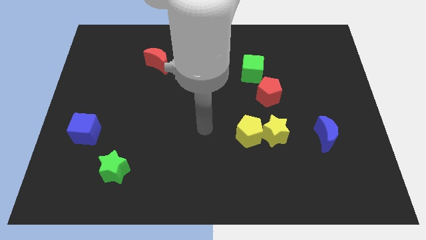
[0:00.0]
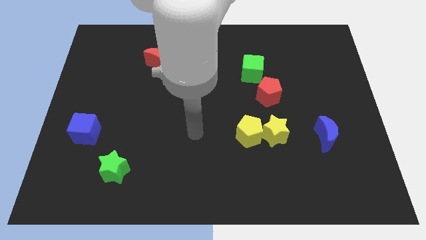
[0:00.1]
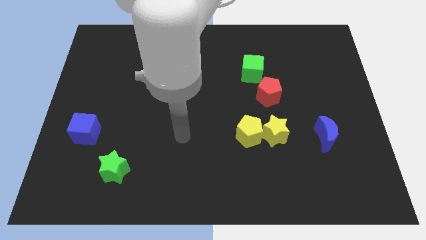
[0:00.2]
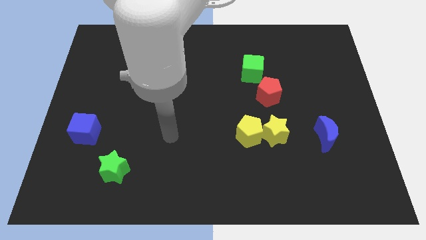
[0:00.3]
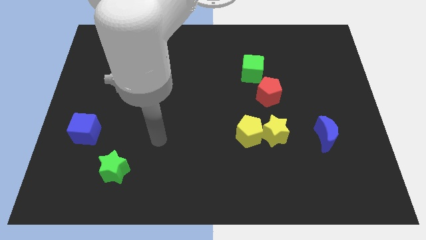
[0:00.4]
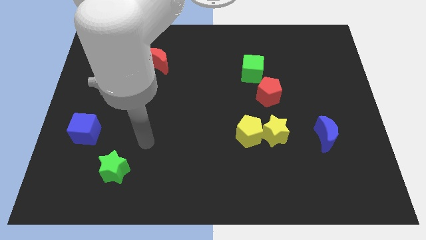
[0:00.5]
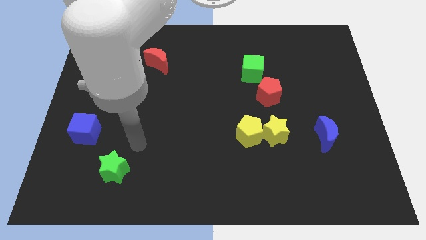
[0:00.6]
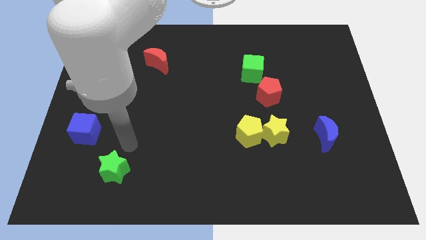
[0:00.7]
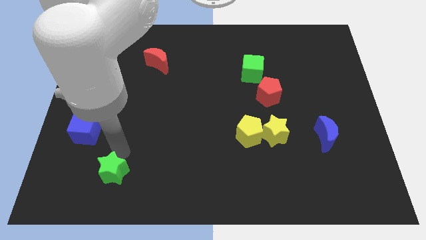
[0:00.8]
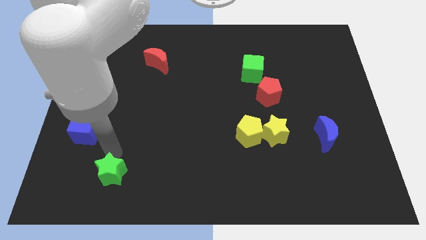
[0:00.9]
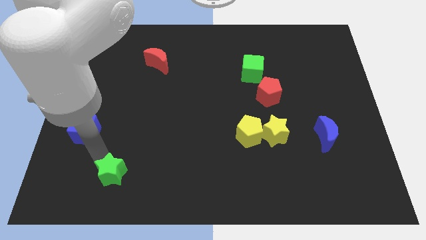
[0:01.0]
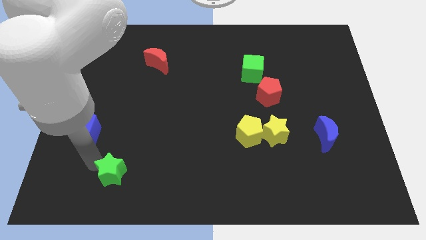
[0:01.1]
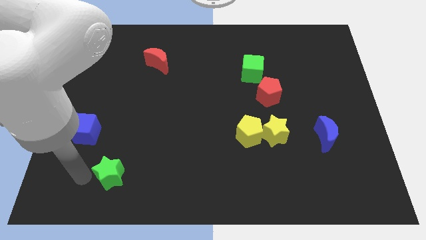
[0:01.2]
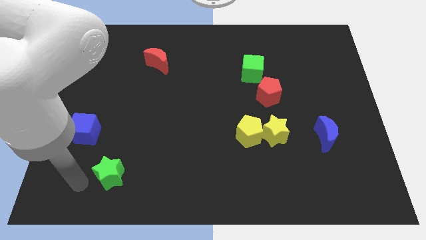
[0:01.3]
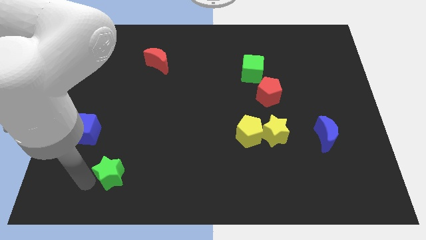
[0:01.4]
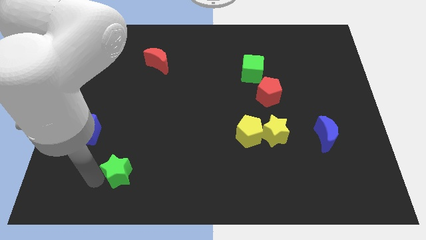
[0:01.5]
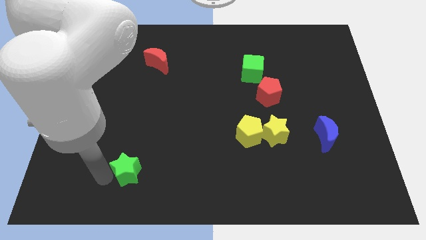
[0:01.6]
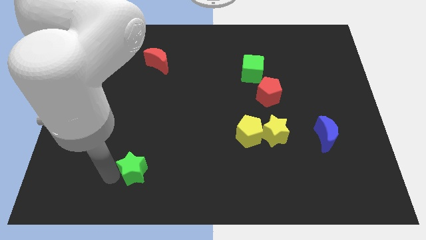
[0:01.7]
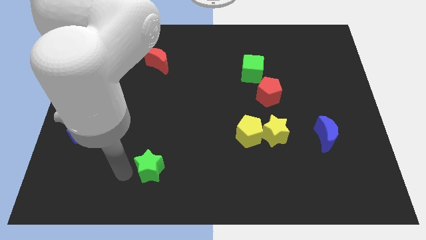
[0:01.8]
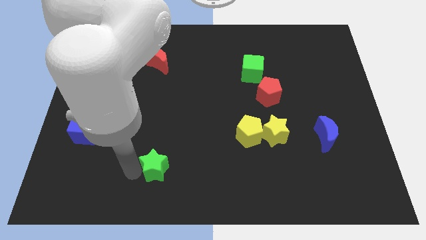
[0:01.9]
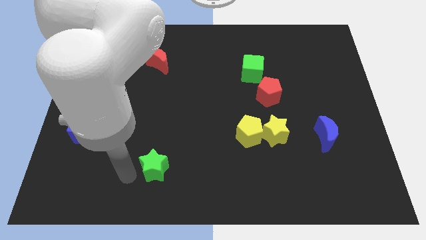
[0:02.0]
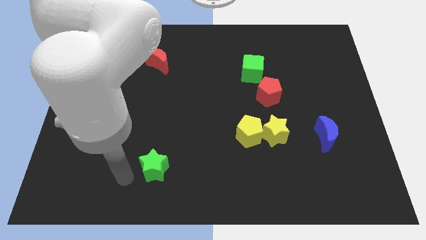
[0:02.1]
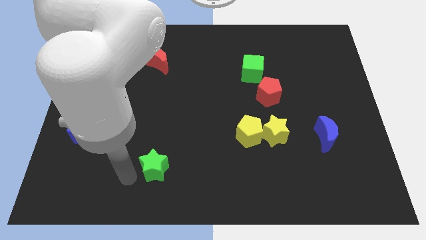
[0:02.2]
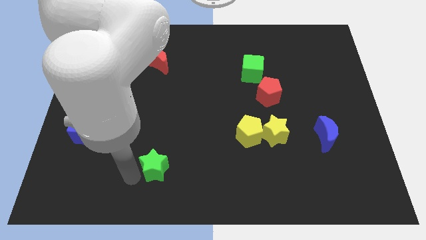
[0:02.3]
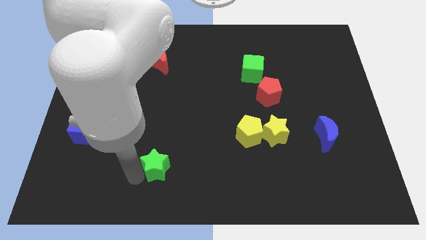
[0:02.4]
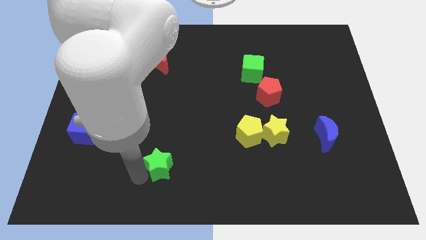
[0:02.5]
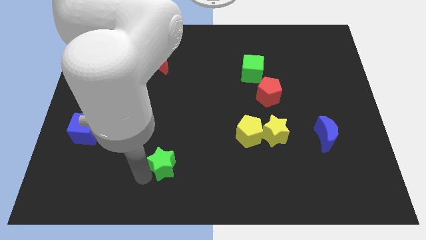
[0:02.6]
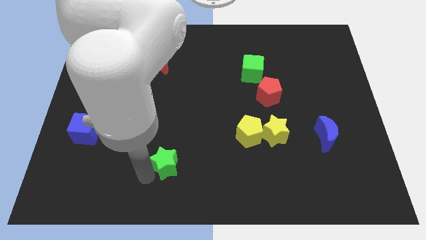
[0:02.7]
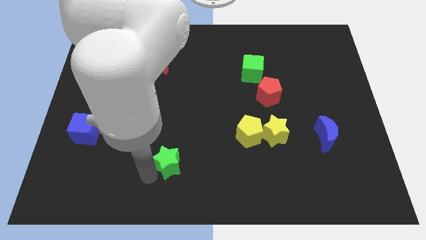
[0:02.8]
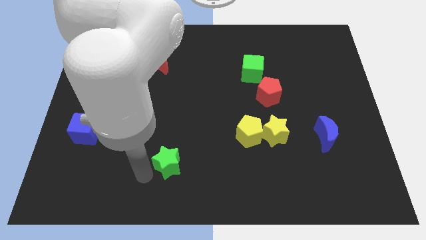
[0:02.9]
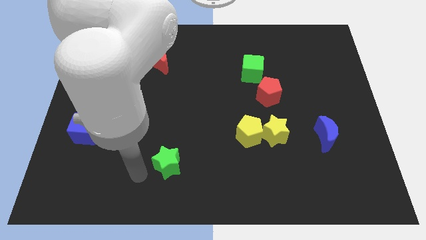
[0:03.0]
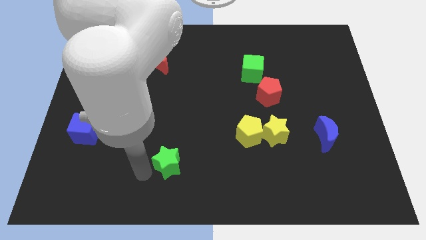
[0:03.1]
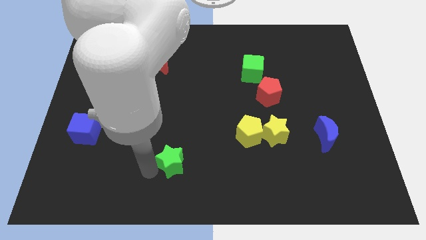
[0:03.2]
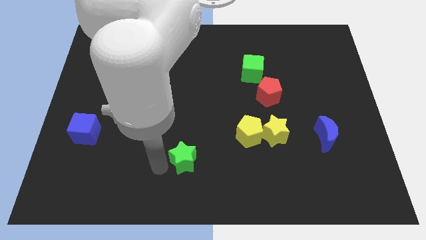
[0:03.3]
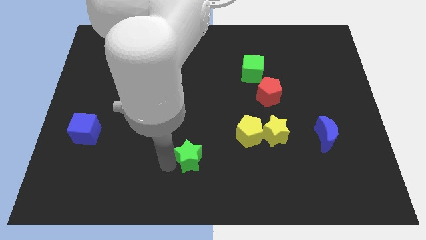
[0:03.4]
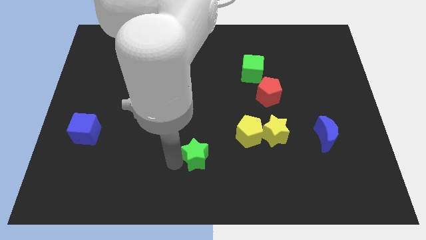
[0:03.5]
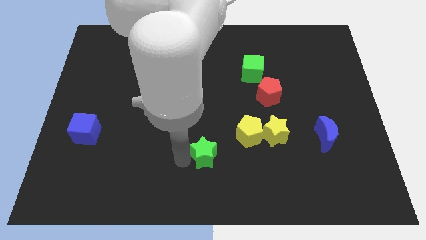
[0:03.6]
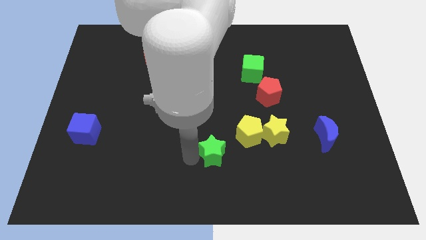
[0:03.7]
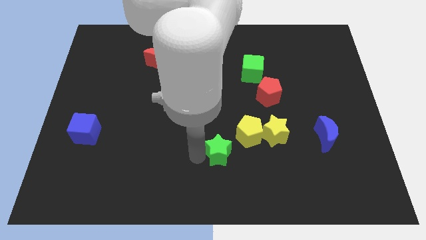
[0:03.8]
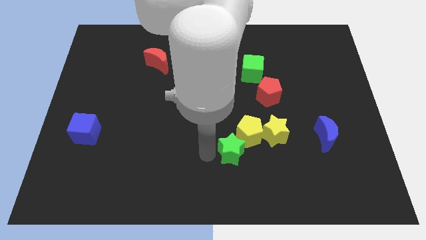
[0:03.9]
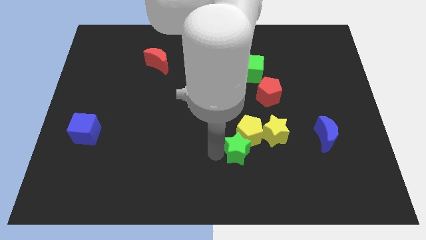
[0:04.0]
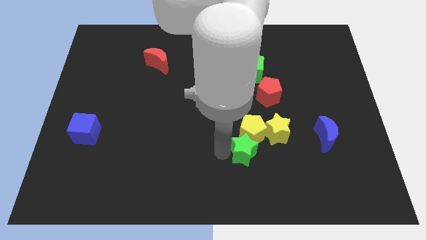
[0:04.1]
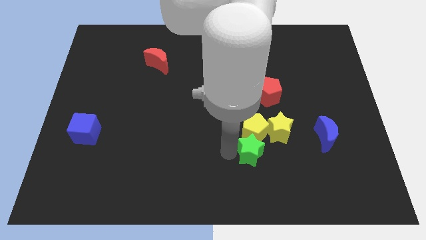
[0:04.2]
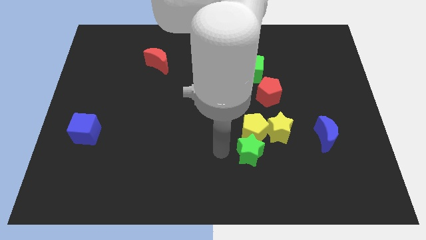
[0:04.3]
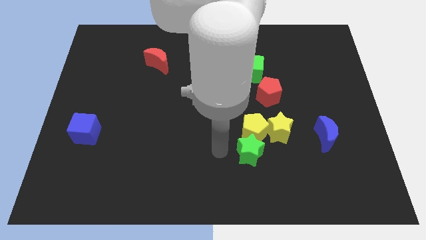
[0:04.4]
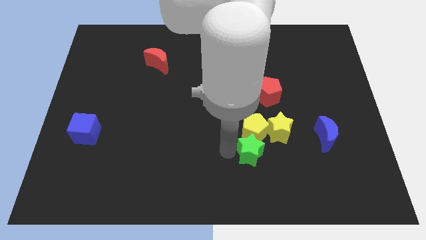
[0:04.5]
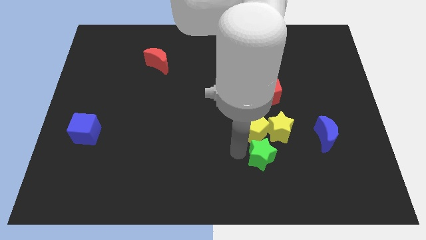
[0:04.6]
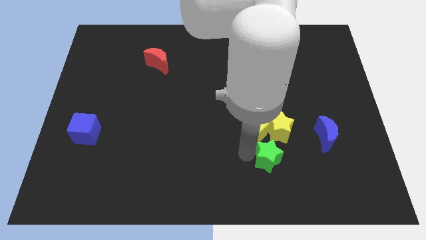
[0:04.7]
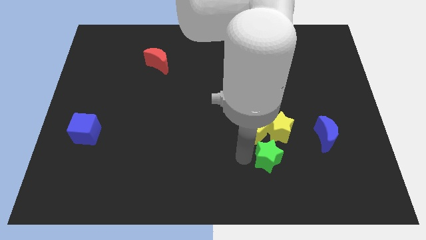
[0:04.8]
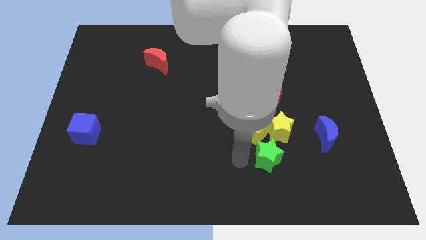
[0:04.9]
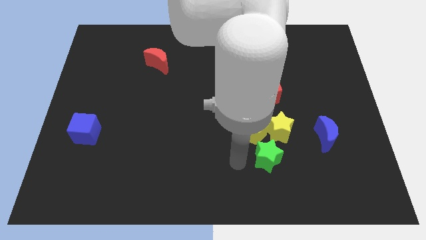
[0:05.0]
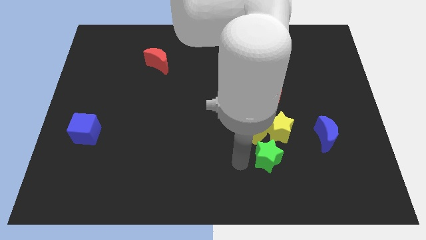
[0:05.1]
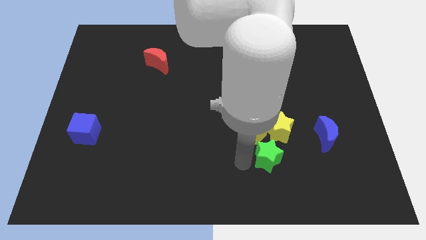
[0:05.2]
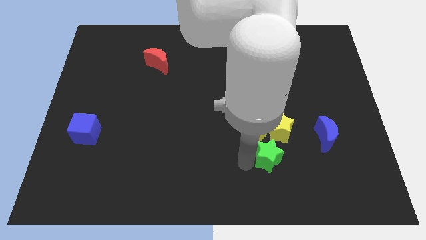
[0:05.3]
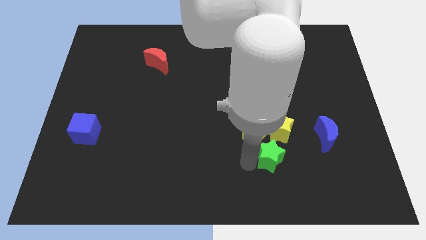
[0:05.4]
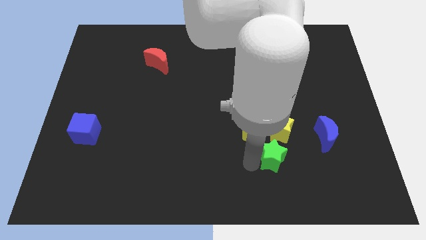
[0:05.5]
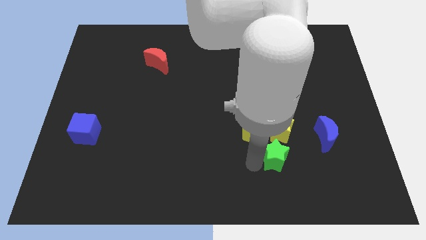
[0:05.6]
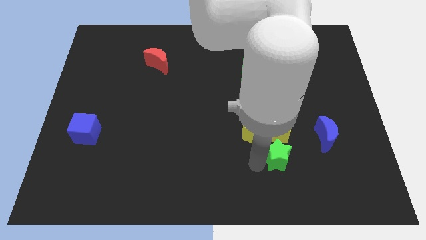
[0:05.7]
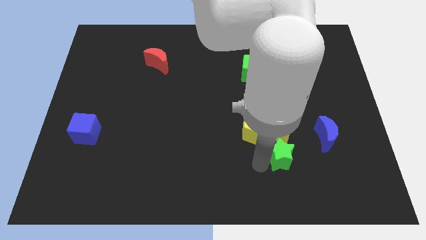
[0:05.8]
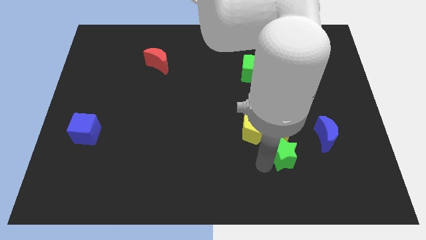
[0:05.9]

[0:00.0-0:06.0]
slide the green star diagonally down and to the left of the blue moon

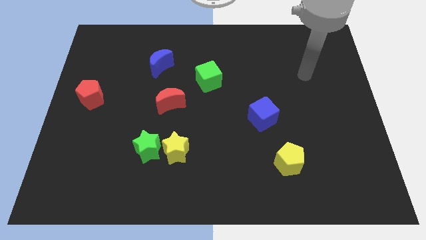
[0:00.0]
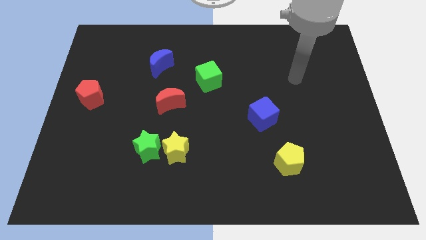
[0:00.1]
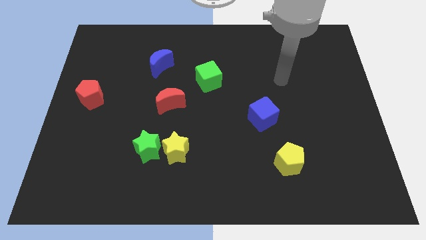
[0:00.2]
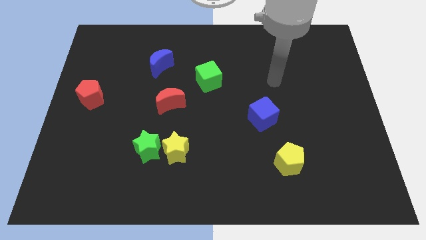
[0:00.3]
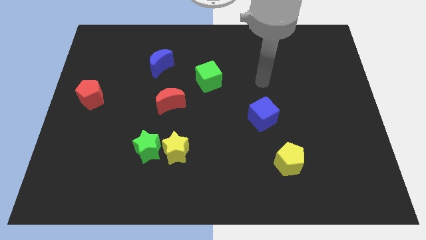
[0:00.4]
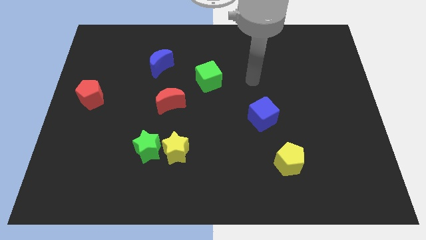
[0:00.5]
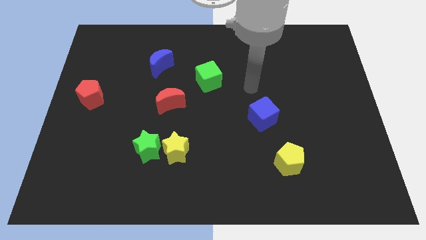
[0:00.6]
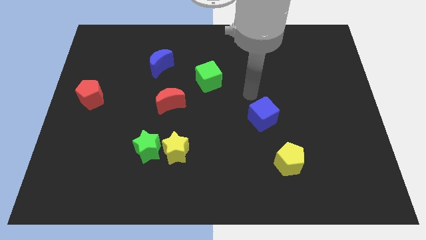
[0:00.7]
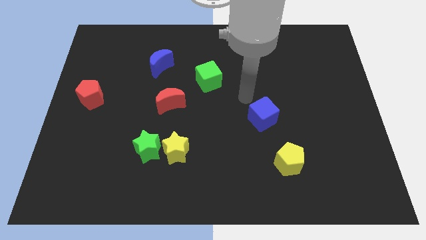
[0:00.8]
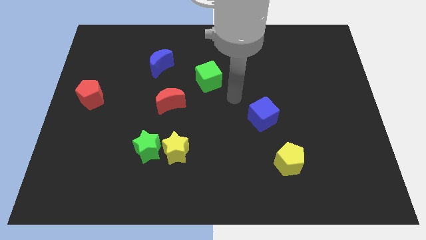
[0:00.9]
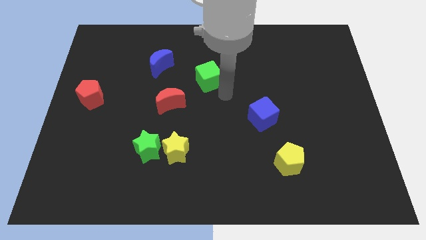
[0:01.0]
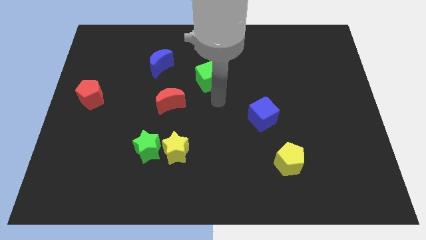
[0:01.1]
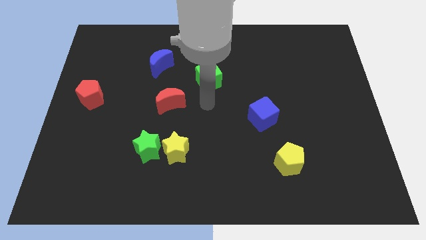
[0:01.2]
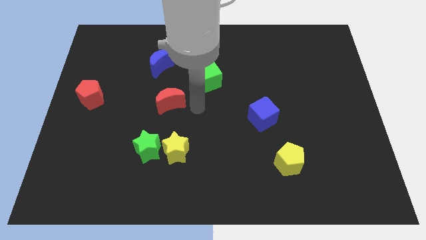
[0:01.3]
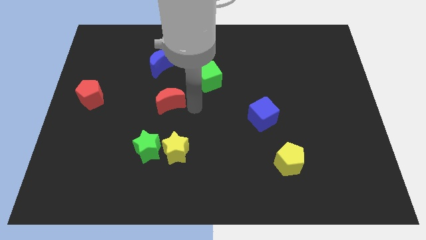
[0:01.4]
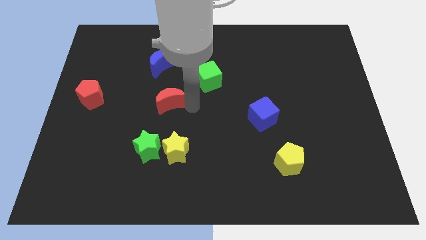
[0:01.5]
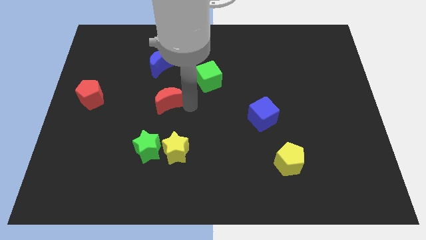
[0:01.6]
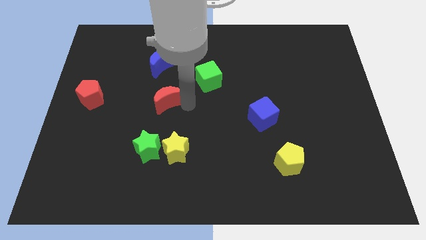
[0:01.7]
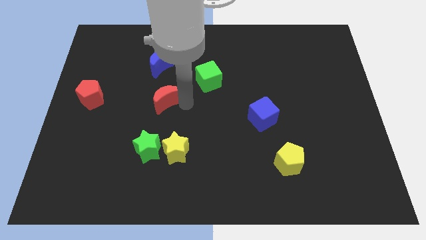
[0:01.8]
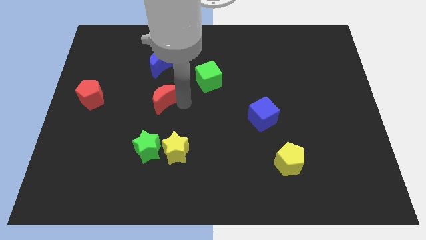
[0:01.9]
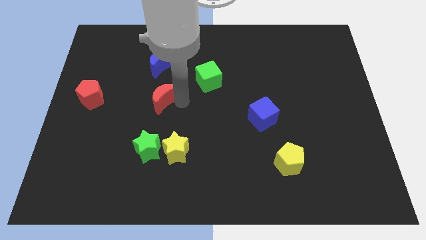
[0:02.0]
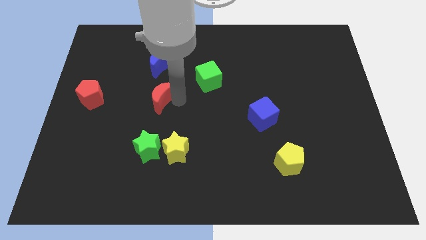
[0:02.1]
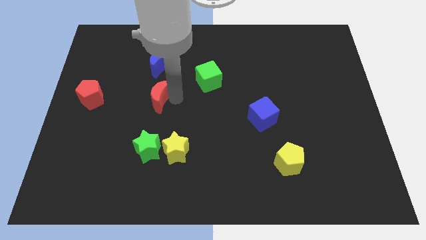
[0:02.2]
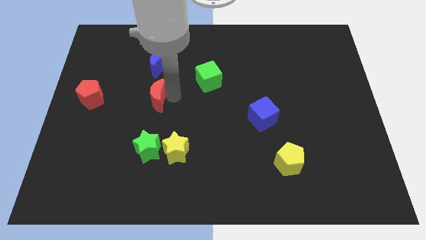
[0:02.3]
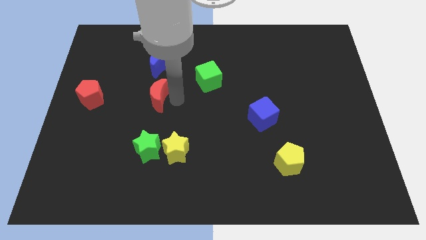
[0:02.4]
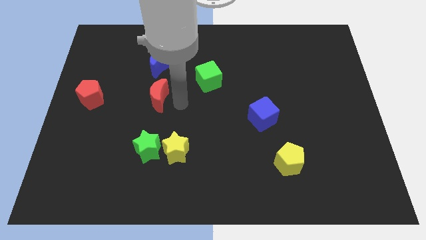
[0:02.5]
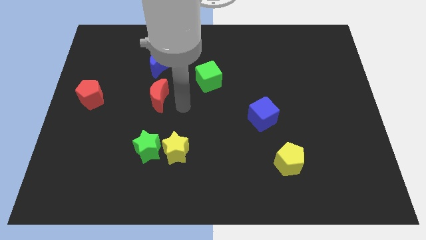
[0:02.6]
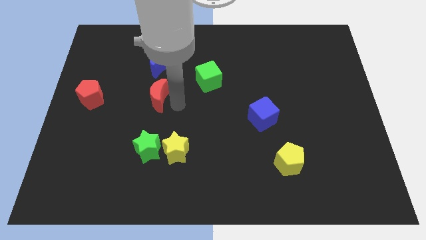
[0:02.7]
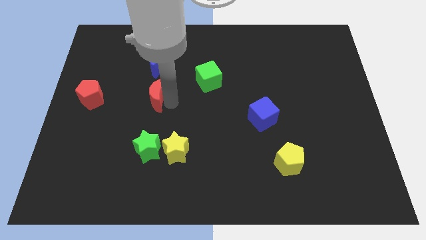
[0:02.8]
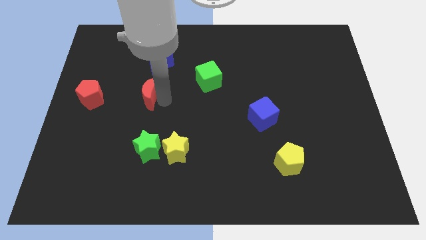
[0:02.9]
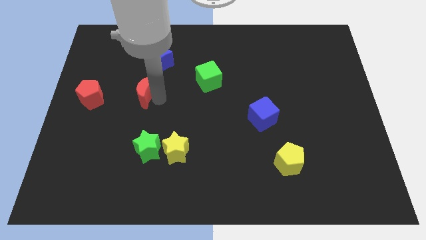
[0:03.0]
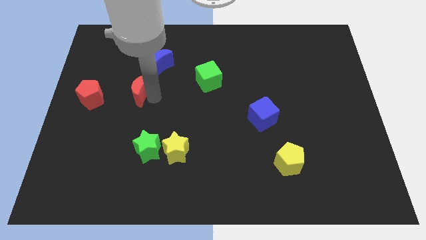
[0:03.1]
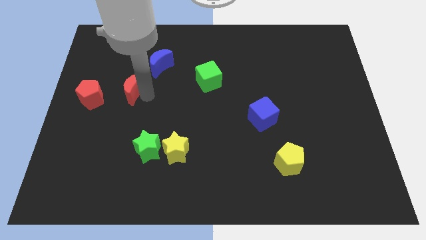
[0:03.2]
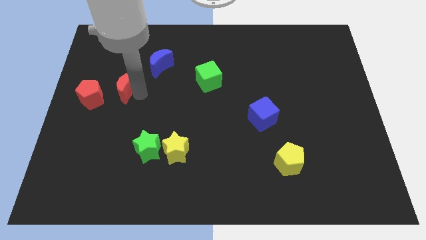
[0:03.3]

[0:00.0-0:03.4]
push the red moon to the top right side of the red pentagon
